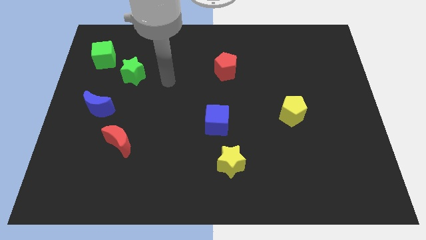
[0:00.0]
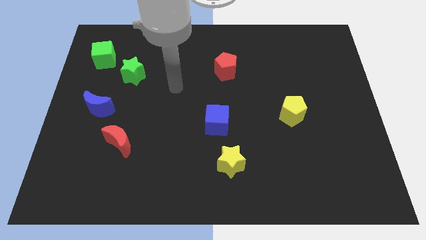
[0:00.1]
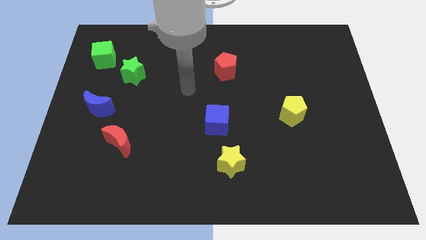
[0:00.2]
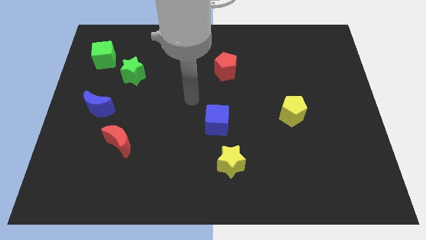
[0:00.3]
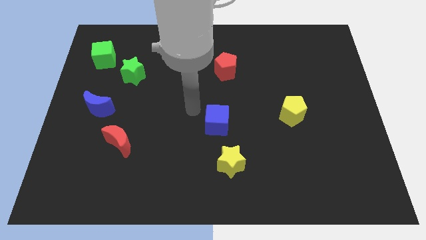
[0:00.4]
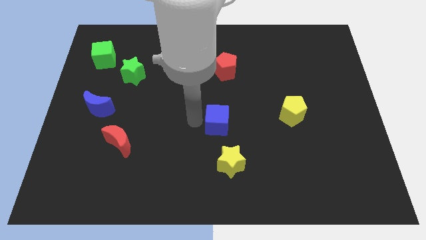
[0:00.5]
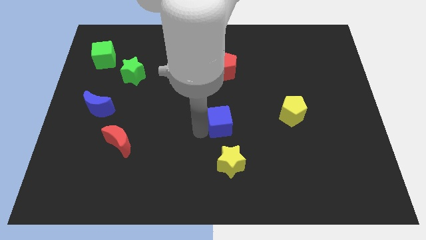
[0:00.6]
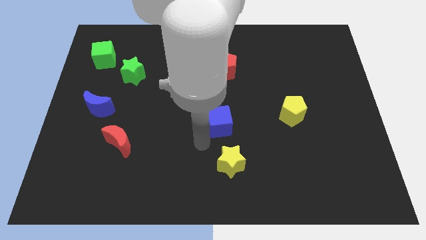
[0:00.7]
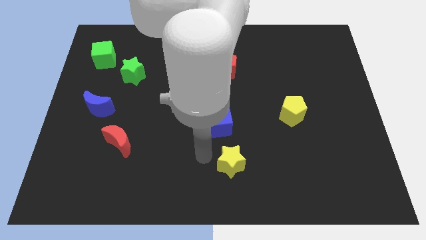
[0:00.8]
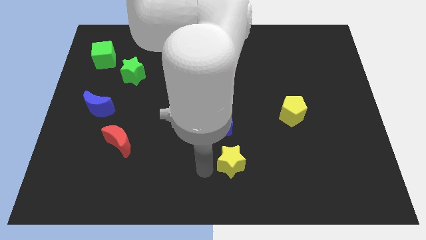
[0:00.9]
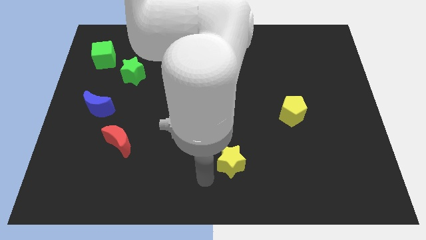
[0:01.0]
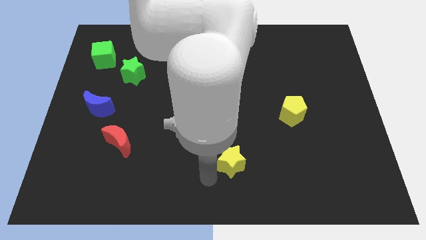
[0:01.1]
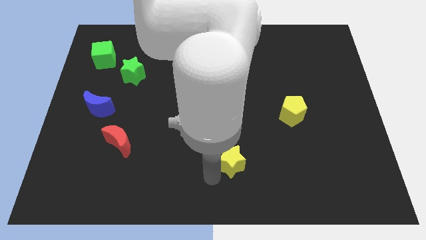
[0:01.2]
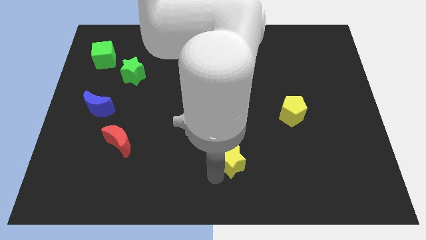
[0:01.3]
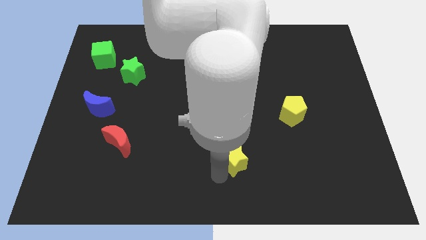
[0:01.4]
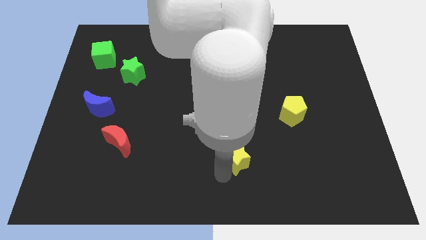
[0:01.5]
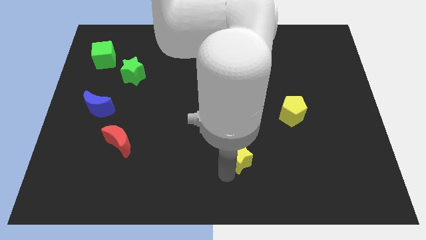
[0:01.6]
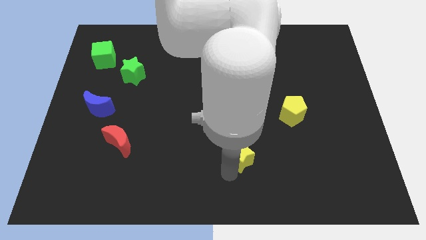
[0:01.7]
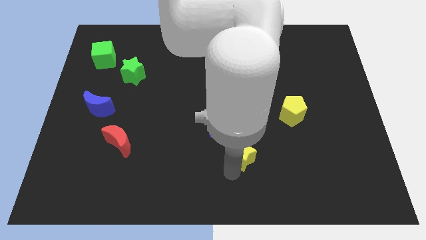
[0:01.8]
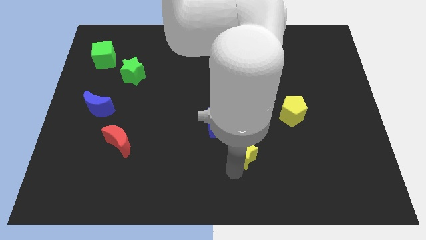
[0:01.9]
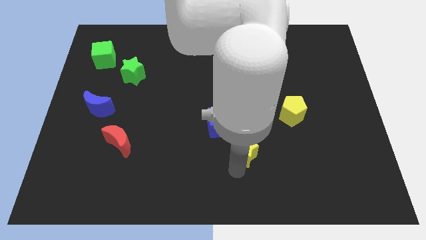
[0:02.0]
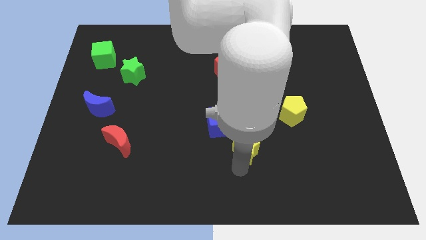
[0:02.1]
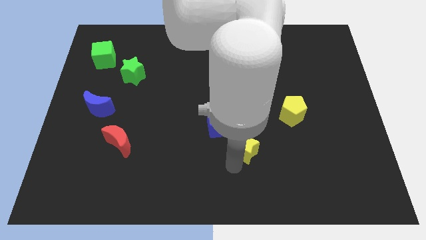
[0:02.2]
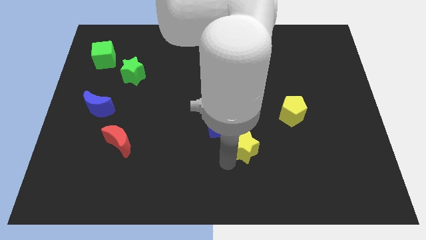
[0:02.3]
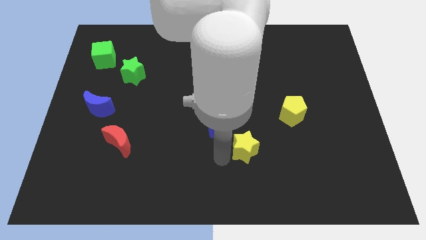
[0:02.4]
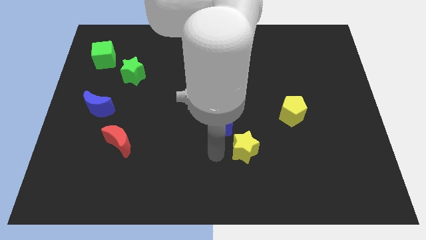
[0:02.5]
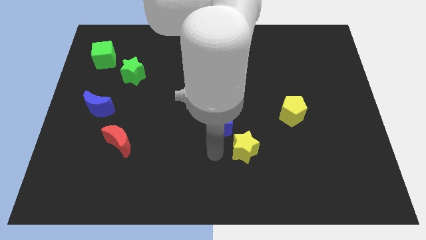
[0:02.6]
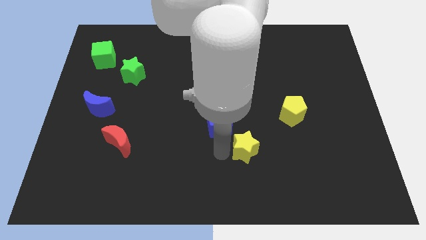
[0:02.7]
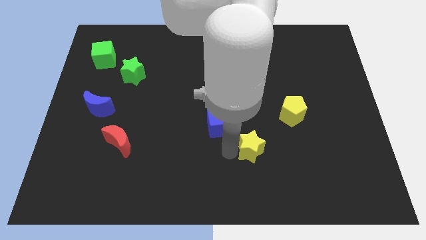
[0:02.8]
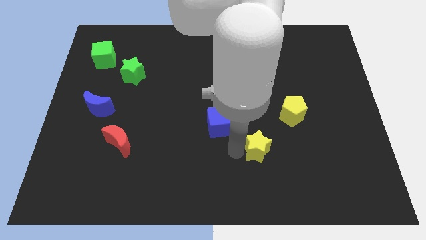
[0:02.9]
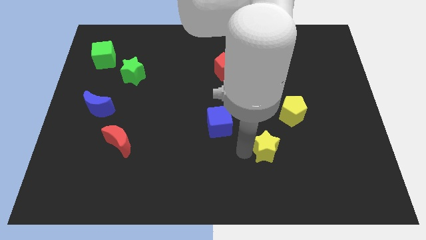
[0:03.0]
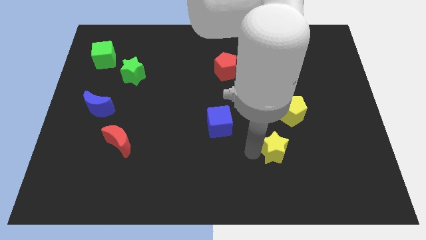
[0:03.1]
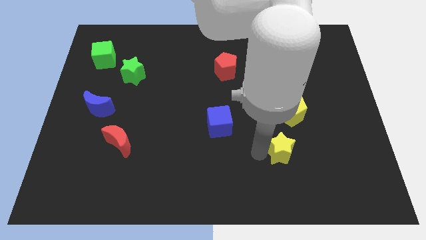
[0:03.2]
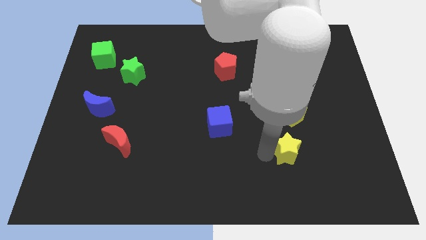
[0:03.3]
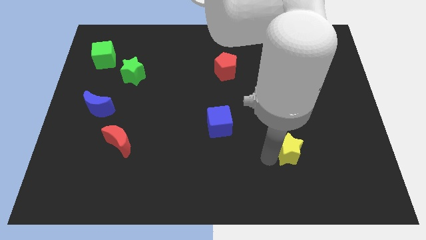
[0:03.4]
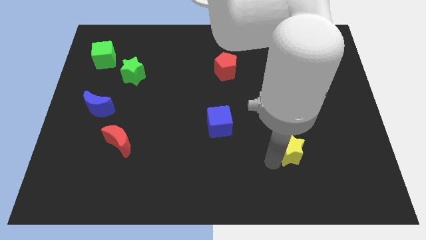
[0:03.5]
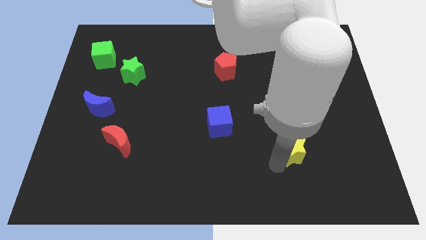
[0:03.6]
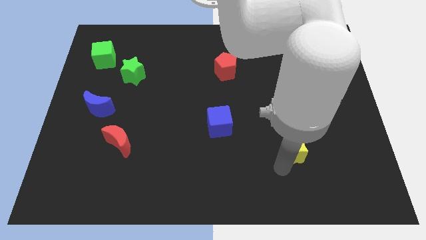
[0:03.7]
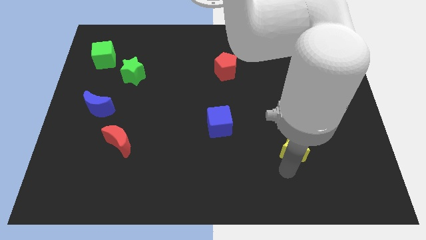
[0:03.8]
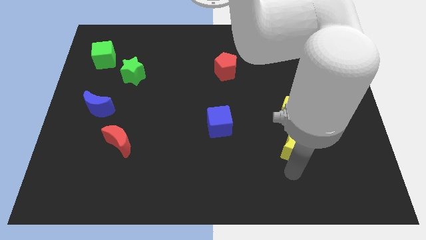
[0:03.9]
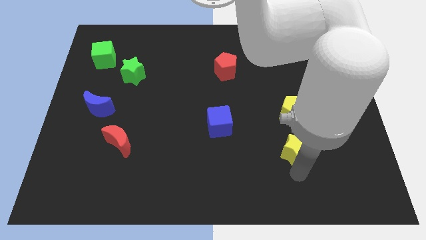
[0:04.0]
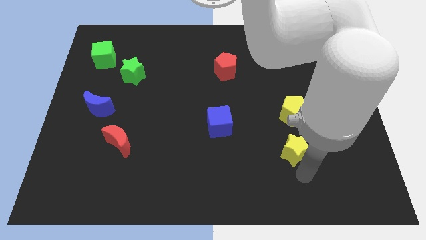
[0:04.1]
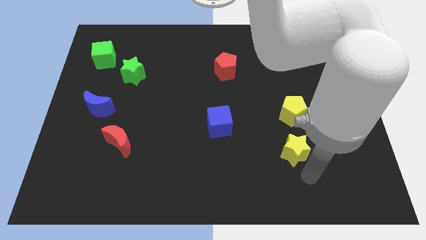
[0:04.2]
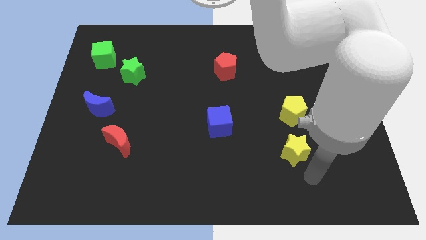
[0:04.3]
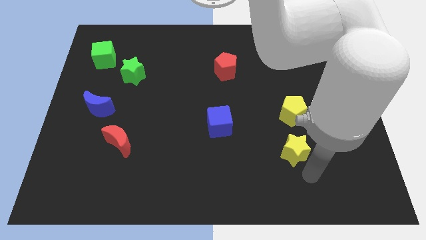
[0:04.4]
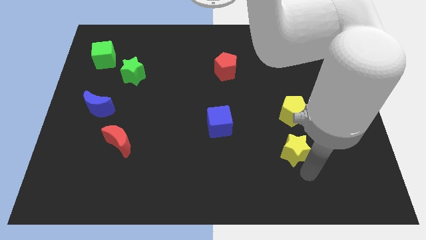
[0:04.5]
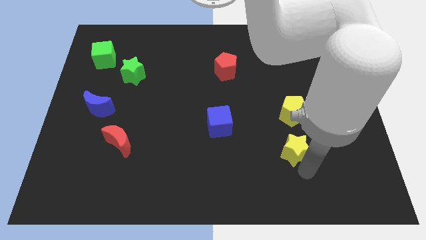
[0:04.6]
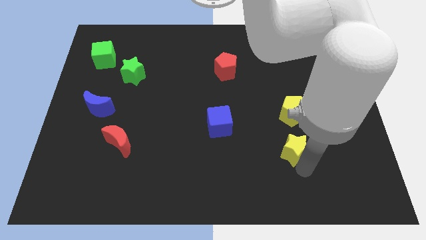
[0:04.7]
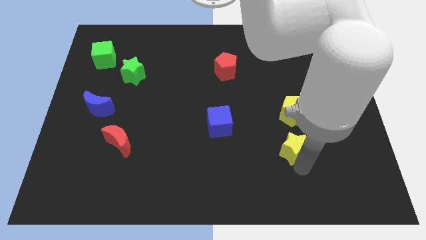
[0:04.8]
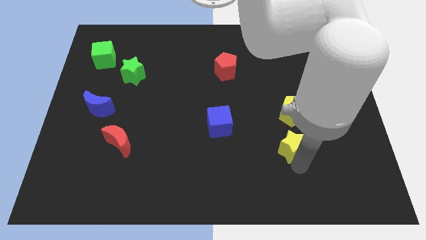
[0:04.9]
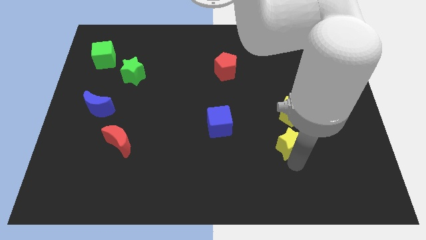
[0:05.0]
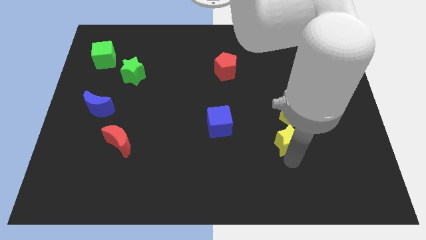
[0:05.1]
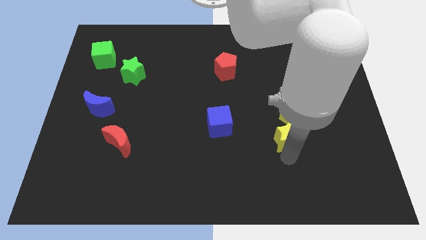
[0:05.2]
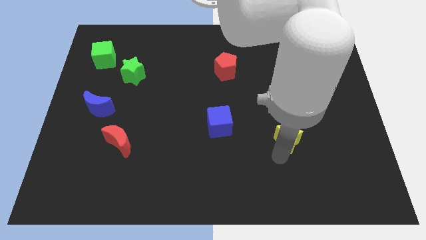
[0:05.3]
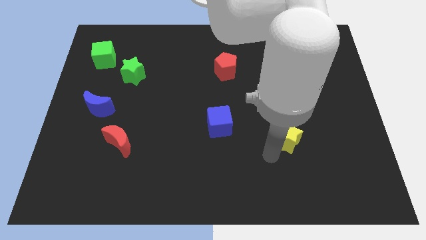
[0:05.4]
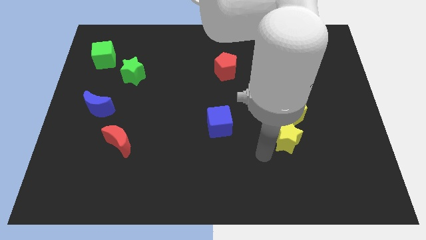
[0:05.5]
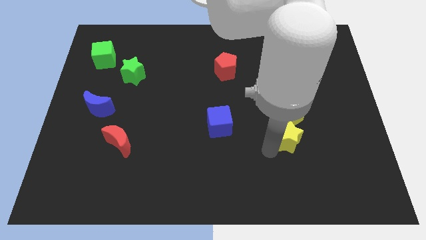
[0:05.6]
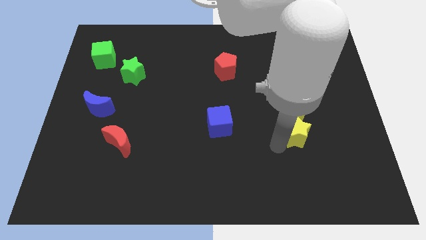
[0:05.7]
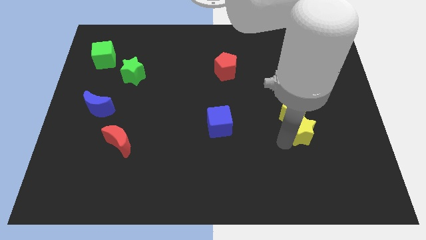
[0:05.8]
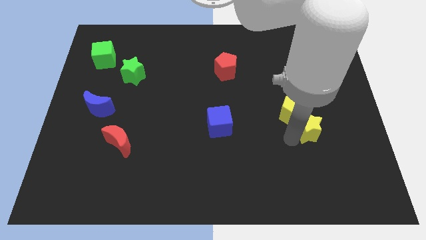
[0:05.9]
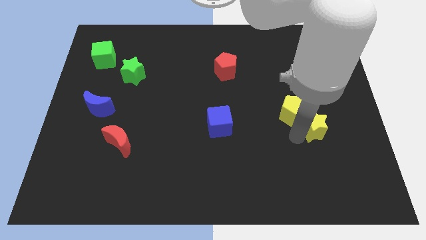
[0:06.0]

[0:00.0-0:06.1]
move the yellow star to the right side of the yellow pentagon

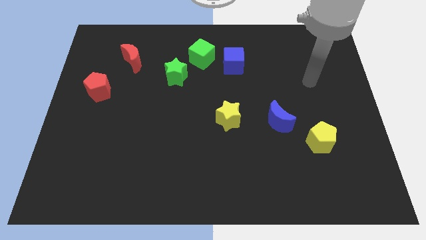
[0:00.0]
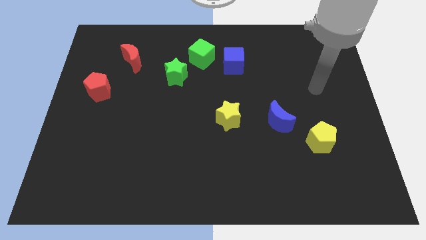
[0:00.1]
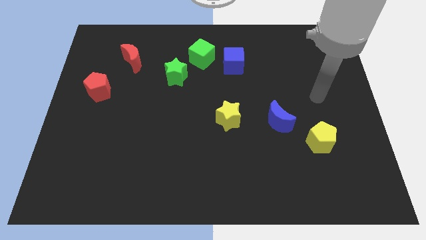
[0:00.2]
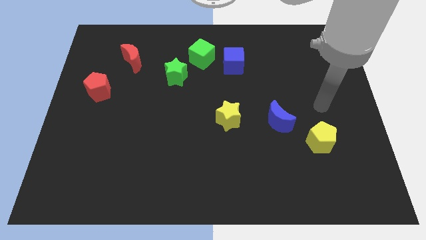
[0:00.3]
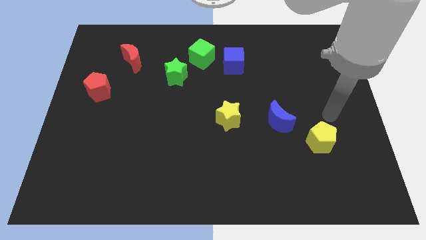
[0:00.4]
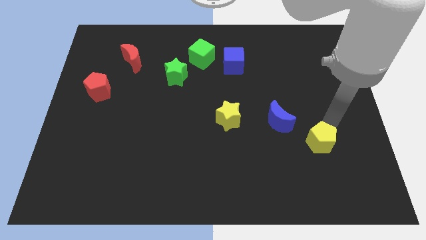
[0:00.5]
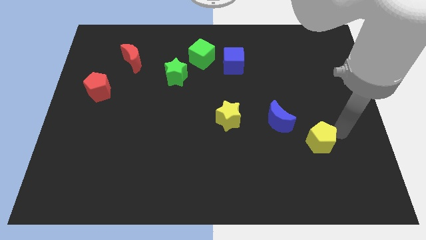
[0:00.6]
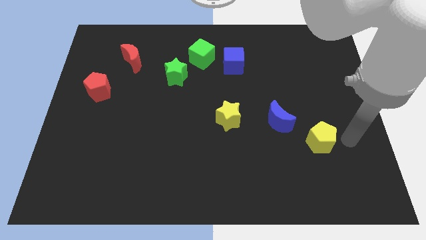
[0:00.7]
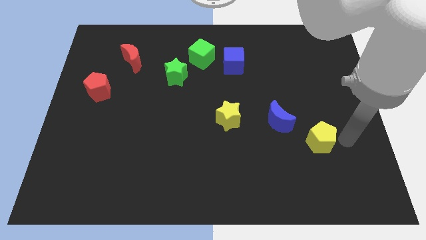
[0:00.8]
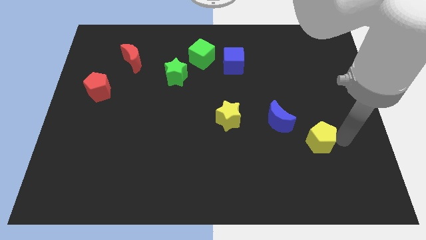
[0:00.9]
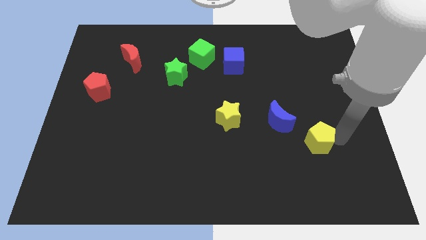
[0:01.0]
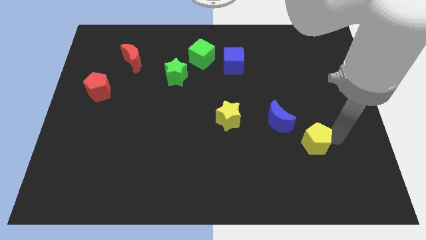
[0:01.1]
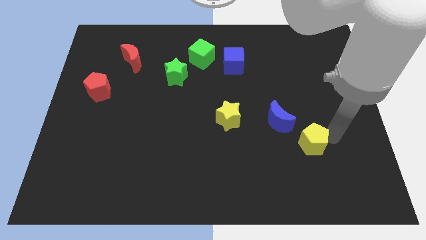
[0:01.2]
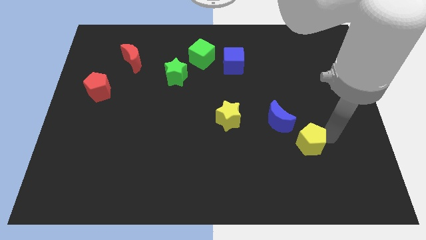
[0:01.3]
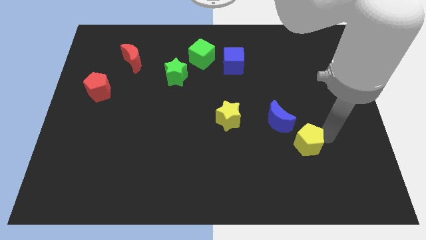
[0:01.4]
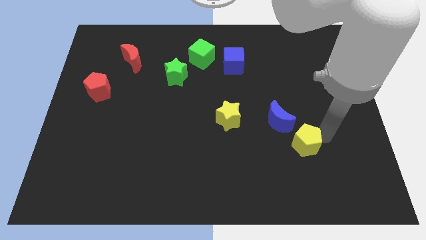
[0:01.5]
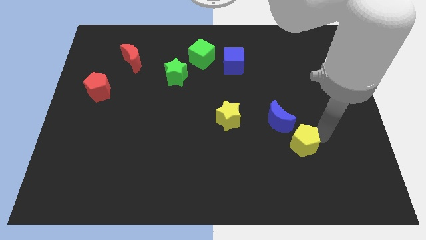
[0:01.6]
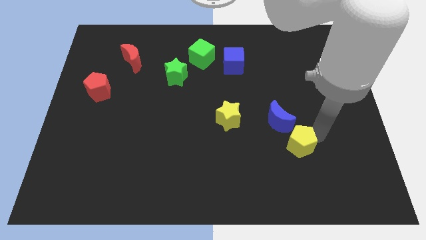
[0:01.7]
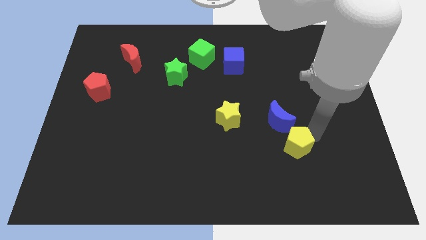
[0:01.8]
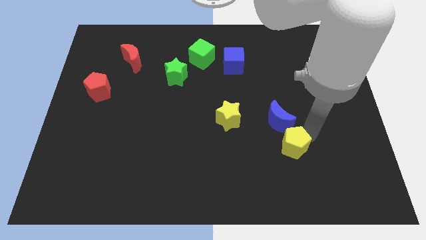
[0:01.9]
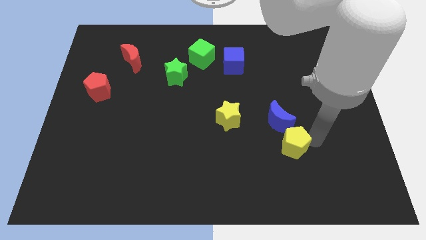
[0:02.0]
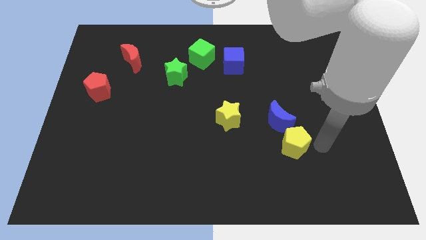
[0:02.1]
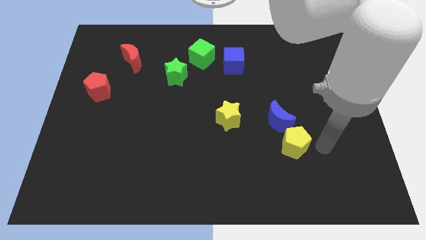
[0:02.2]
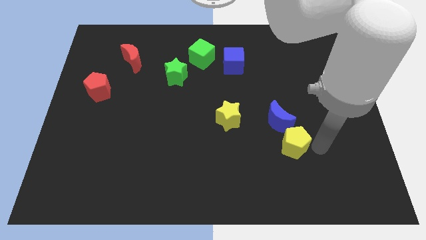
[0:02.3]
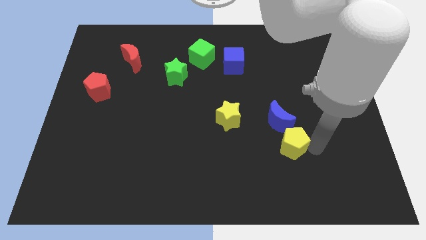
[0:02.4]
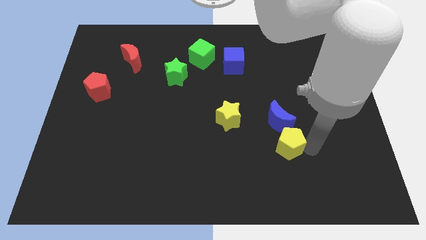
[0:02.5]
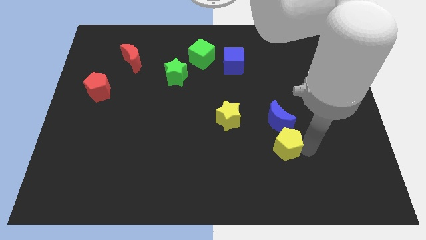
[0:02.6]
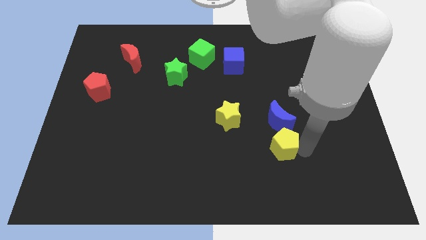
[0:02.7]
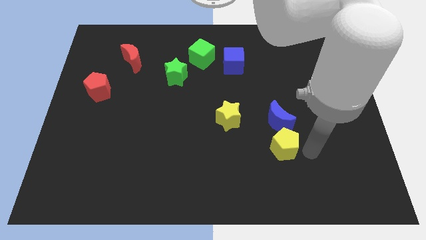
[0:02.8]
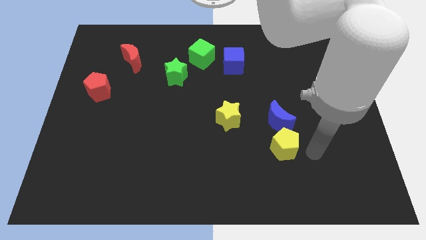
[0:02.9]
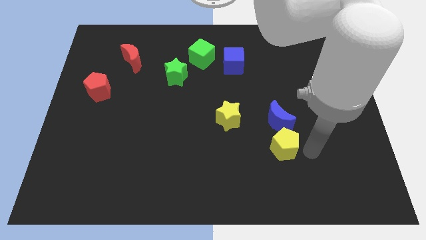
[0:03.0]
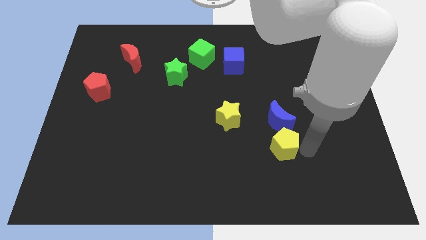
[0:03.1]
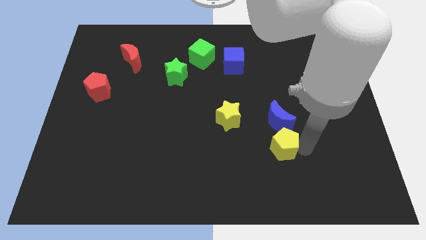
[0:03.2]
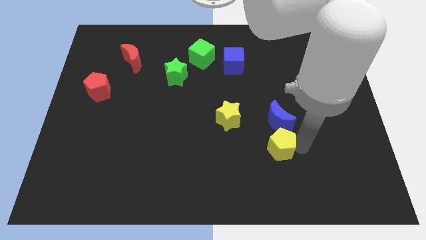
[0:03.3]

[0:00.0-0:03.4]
put the yellow pentagon to the bottom left of the blue moon
